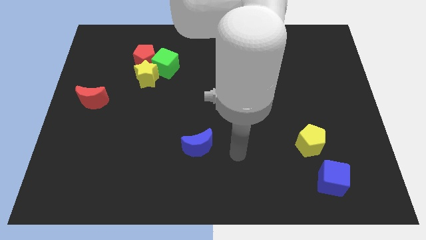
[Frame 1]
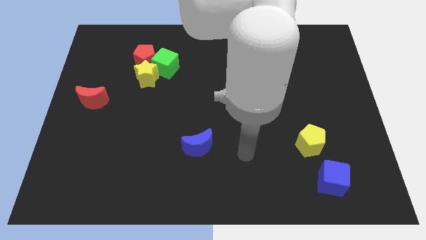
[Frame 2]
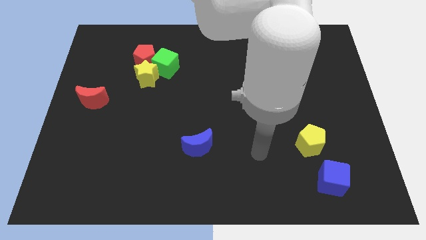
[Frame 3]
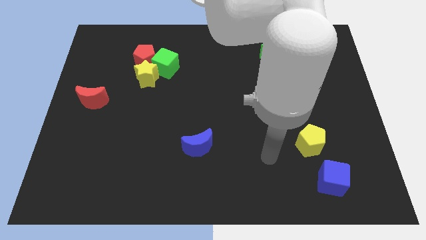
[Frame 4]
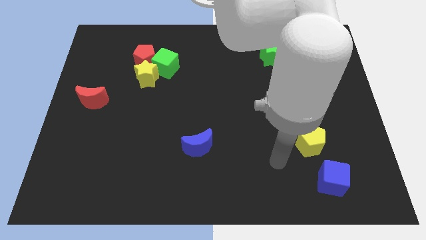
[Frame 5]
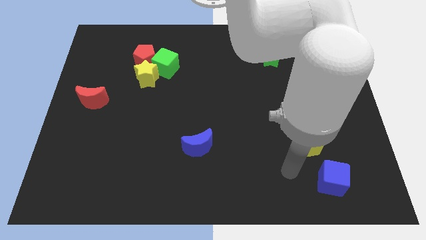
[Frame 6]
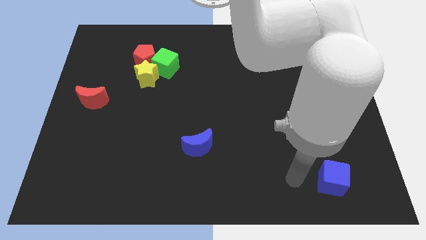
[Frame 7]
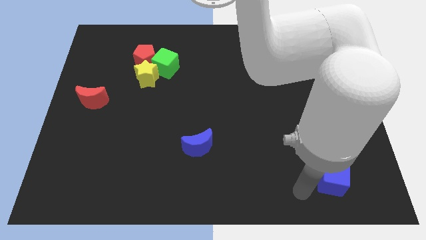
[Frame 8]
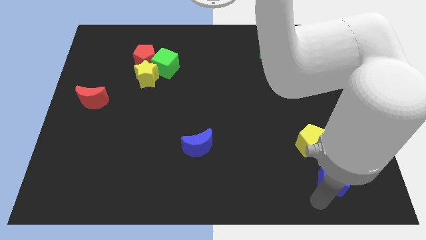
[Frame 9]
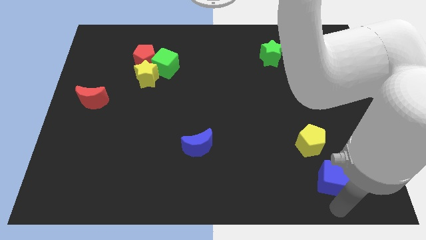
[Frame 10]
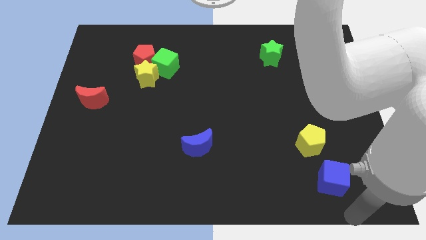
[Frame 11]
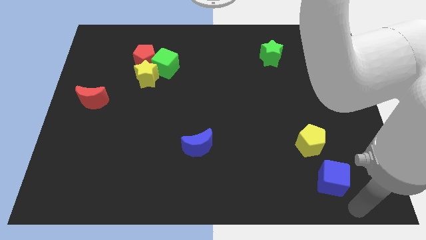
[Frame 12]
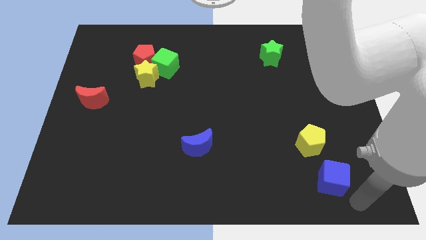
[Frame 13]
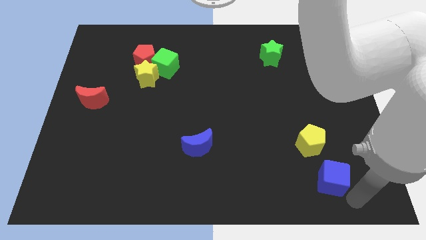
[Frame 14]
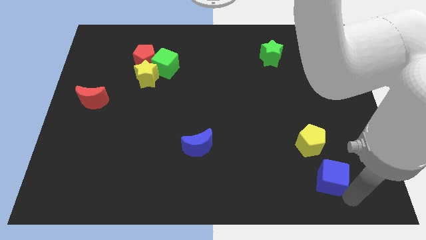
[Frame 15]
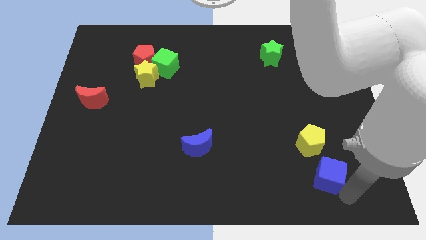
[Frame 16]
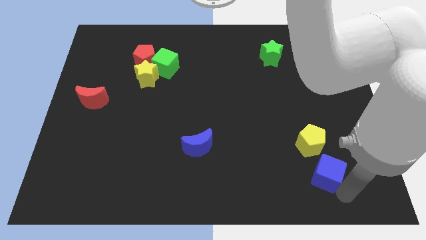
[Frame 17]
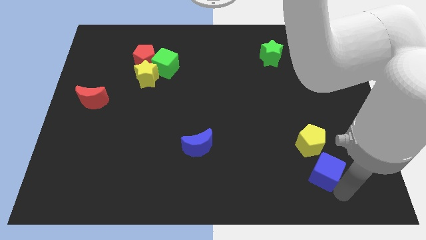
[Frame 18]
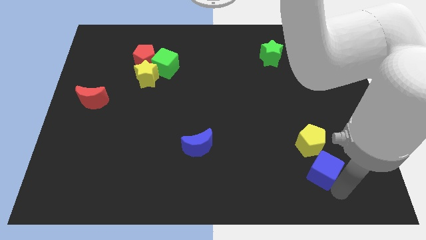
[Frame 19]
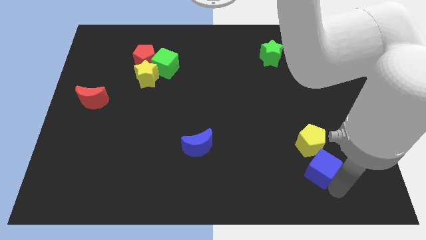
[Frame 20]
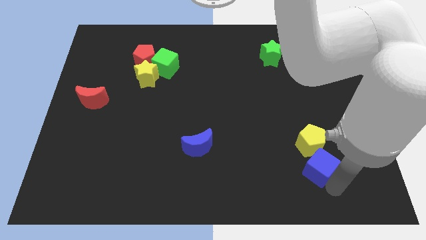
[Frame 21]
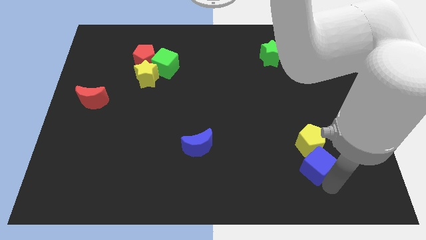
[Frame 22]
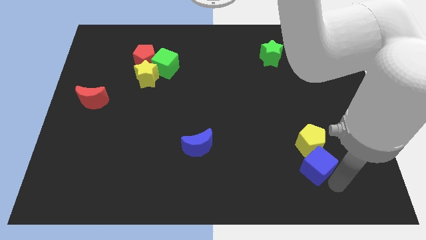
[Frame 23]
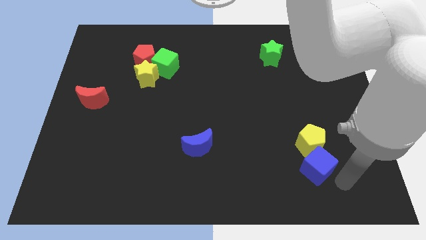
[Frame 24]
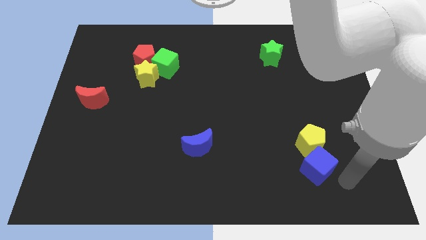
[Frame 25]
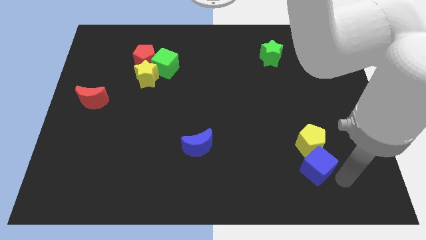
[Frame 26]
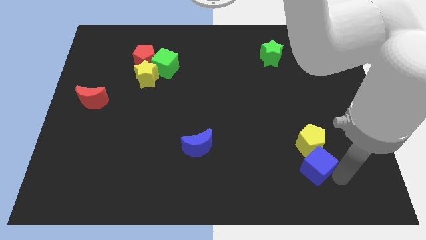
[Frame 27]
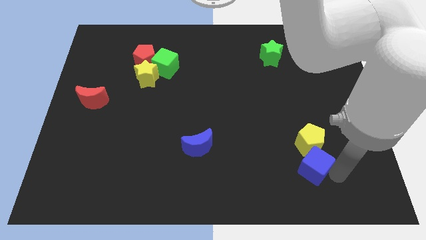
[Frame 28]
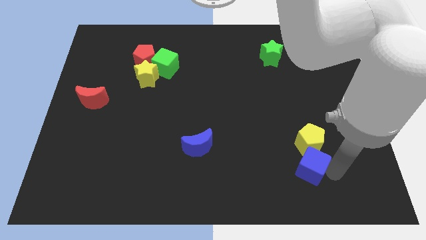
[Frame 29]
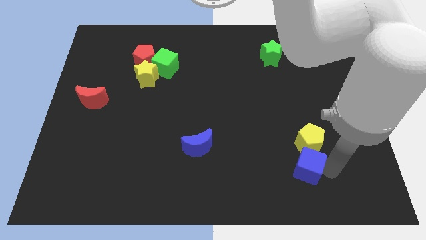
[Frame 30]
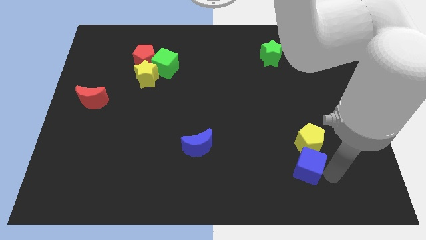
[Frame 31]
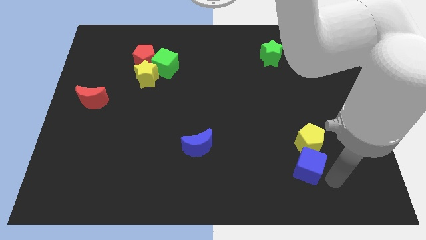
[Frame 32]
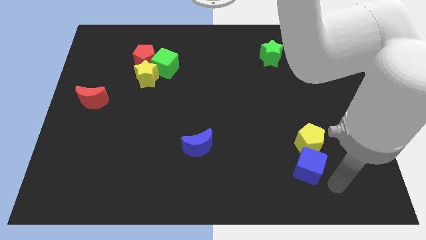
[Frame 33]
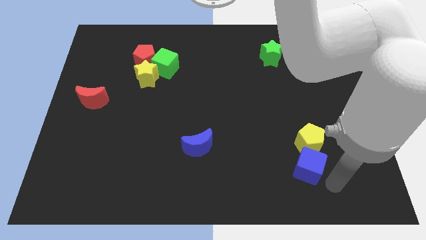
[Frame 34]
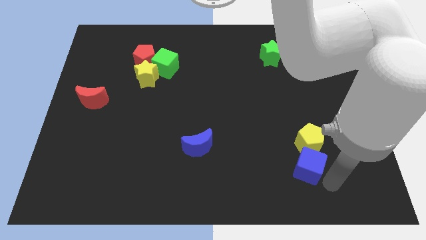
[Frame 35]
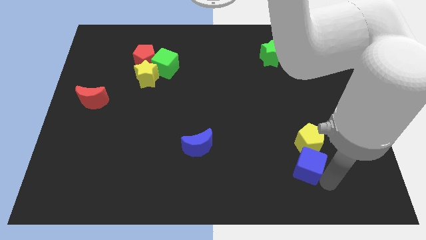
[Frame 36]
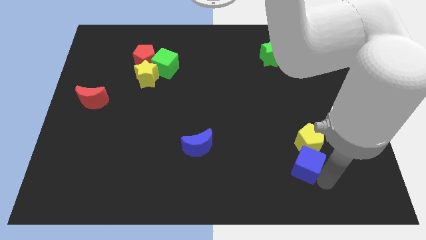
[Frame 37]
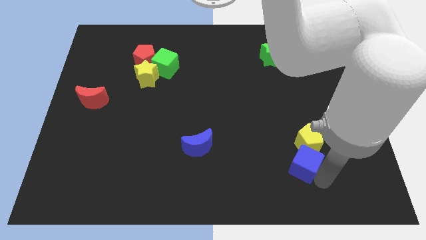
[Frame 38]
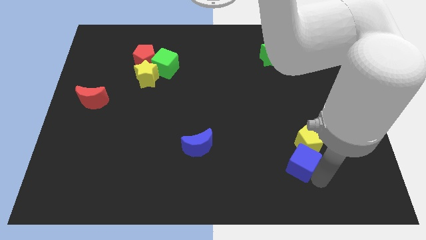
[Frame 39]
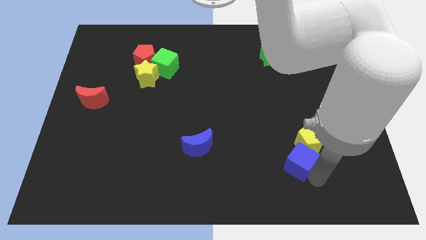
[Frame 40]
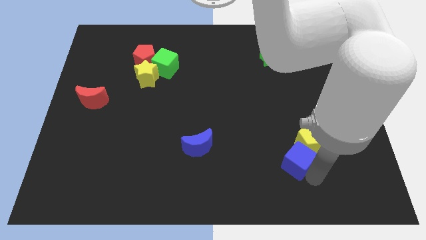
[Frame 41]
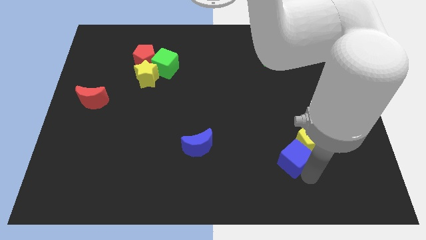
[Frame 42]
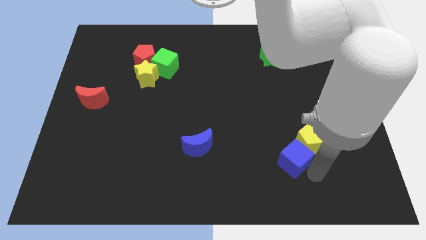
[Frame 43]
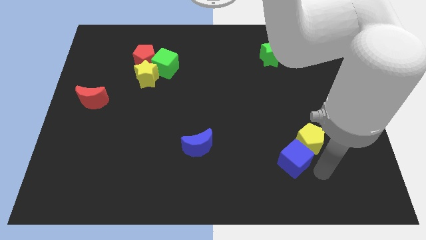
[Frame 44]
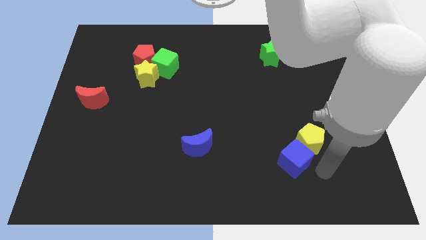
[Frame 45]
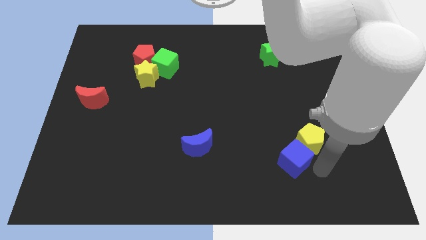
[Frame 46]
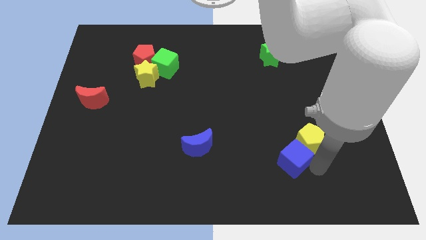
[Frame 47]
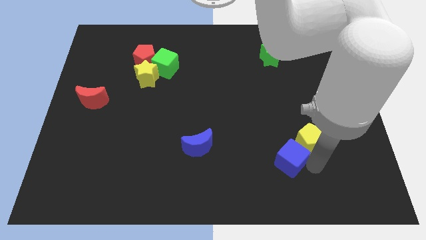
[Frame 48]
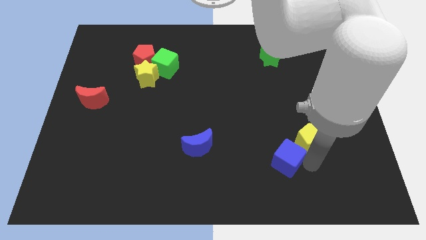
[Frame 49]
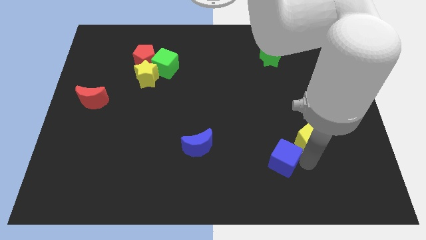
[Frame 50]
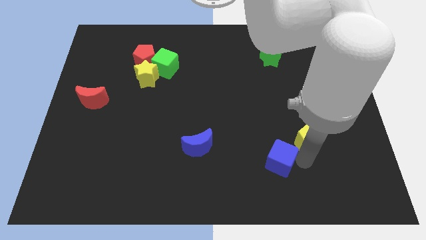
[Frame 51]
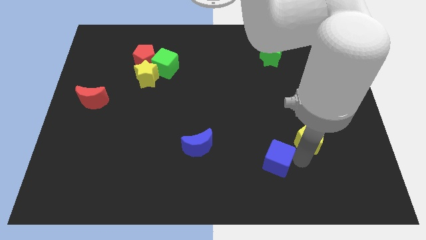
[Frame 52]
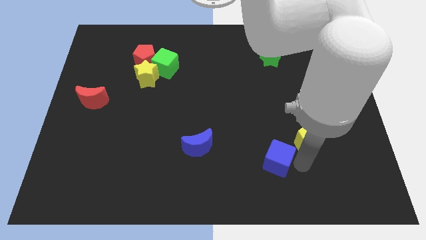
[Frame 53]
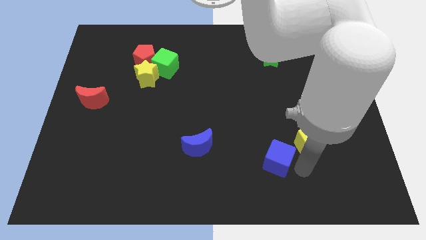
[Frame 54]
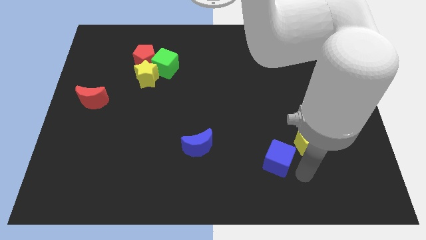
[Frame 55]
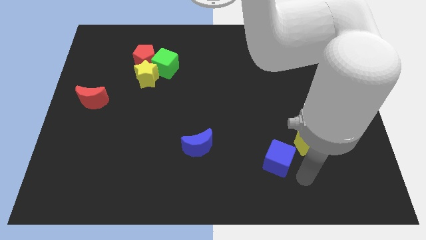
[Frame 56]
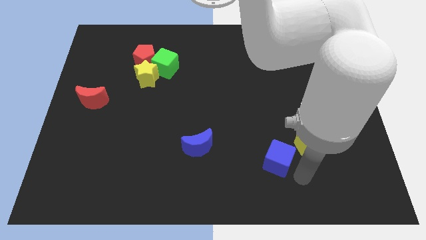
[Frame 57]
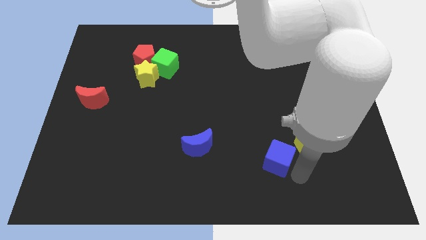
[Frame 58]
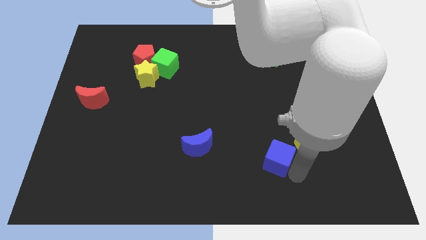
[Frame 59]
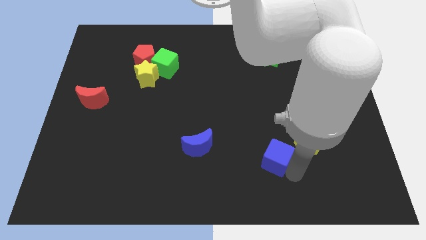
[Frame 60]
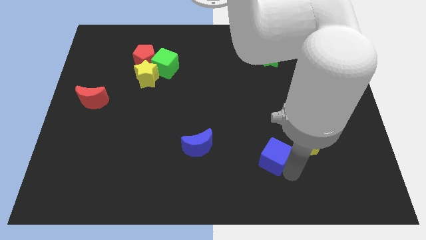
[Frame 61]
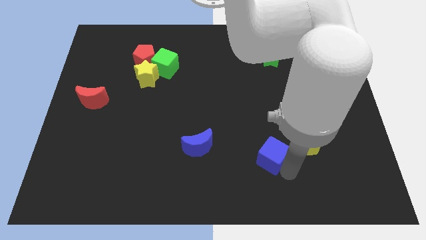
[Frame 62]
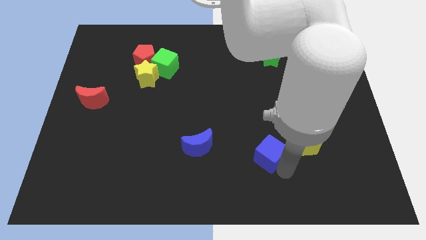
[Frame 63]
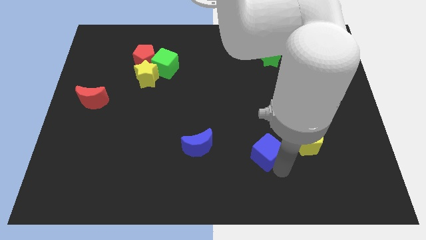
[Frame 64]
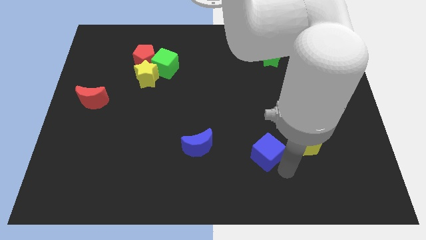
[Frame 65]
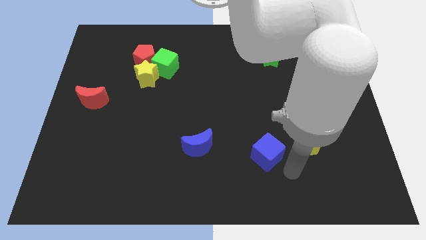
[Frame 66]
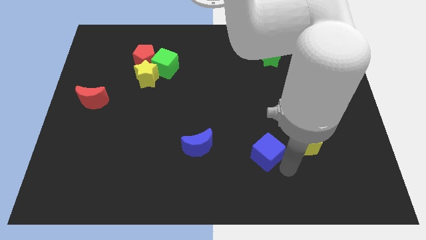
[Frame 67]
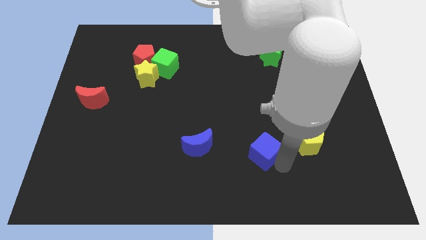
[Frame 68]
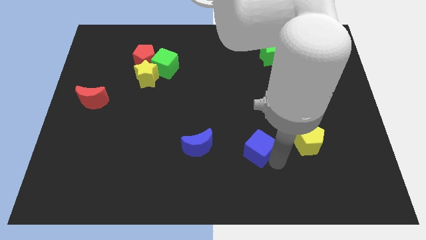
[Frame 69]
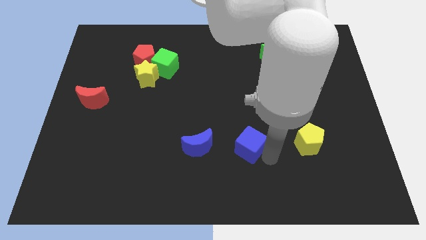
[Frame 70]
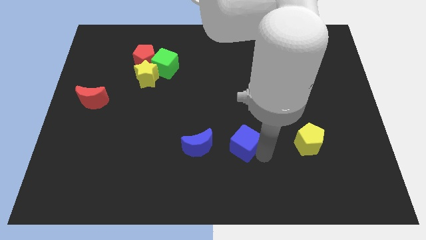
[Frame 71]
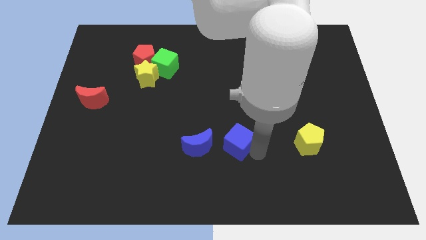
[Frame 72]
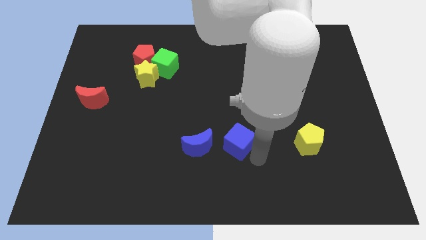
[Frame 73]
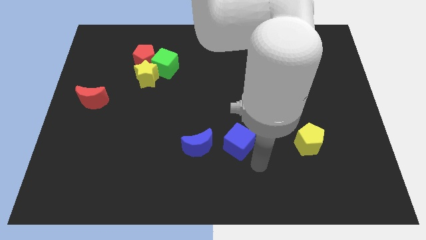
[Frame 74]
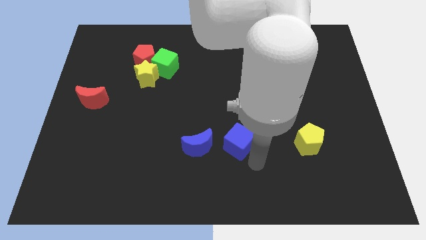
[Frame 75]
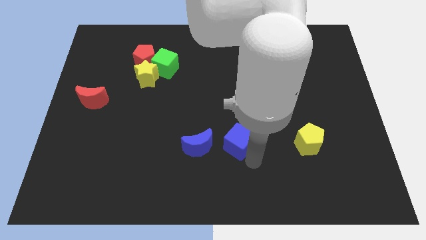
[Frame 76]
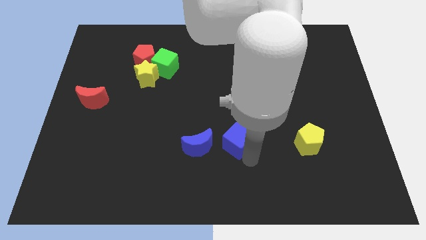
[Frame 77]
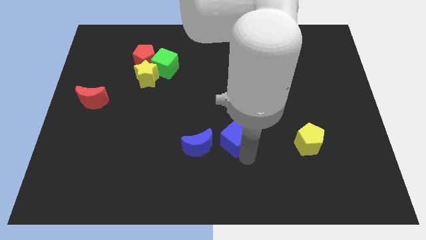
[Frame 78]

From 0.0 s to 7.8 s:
slide the blue cube to the top right side of the blue moon

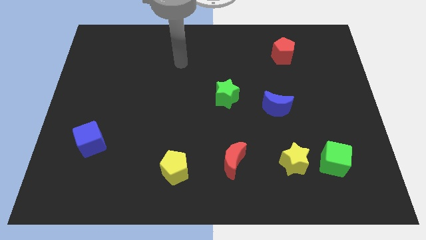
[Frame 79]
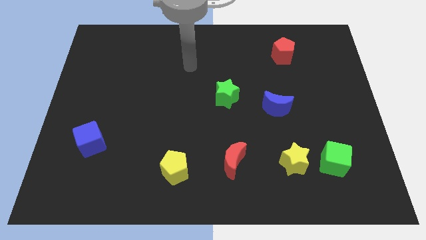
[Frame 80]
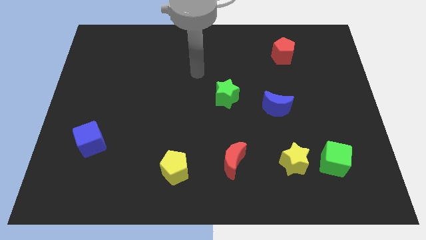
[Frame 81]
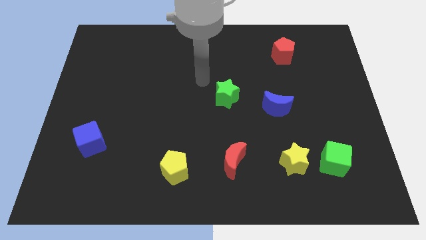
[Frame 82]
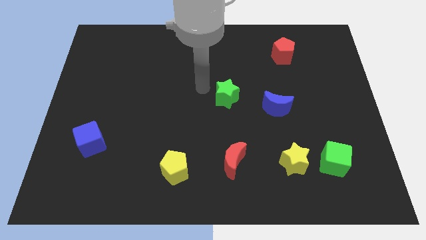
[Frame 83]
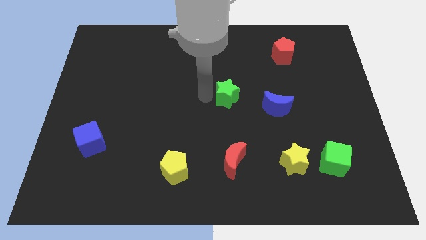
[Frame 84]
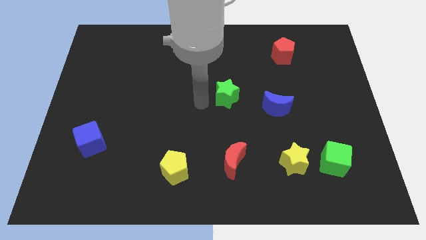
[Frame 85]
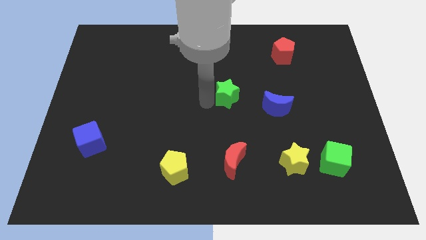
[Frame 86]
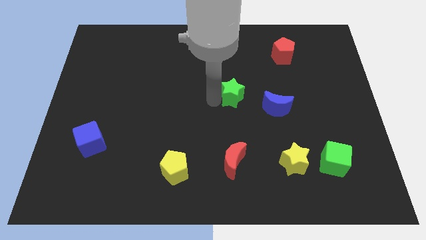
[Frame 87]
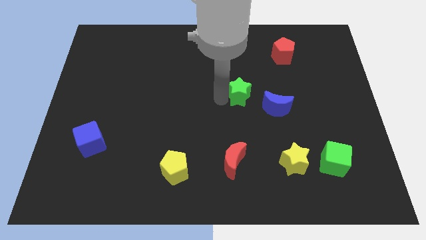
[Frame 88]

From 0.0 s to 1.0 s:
slide the green star to the top left side of the blue moon
